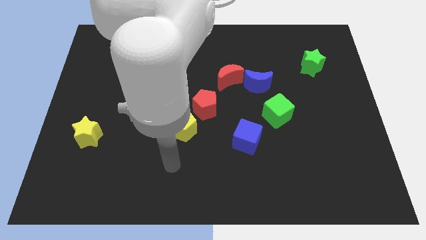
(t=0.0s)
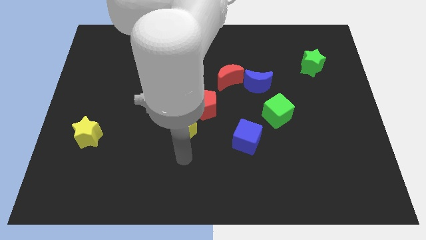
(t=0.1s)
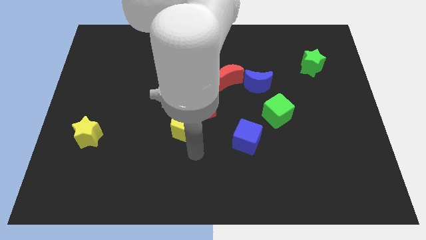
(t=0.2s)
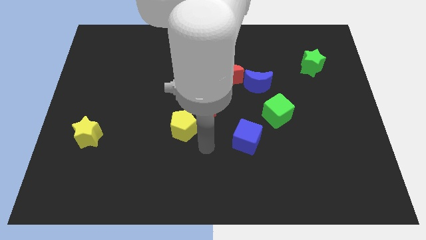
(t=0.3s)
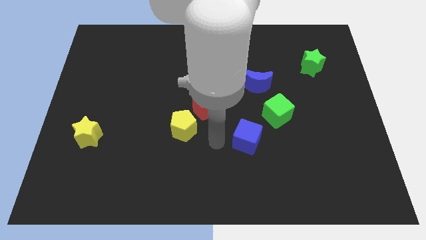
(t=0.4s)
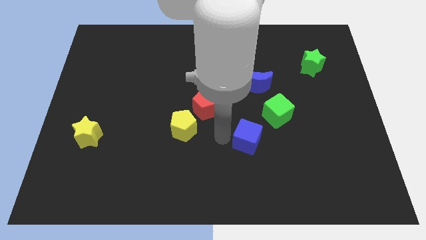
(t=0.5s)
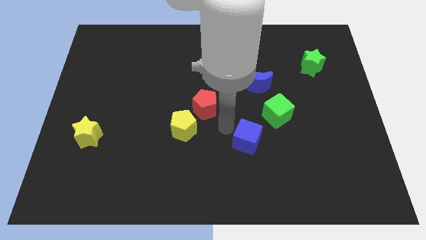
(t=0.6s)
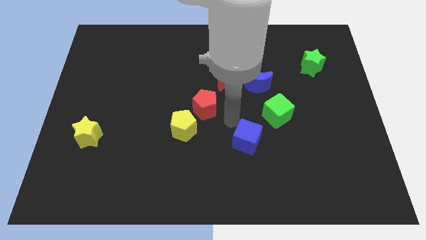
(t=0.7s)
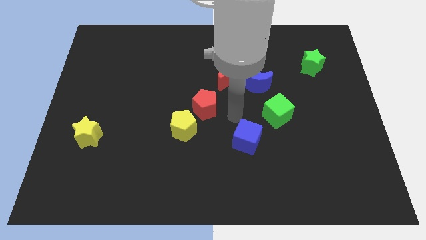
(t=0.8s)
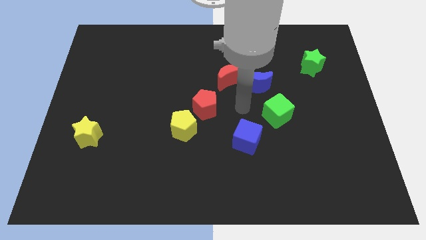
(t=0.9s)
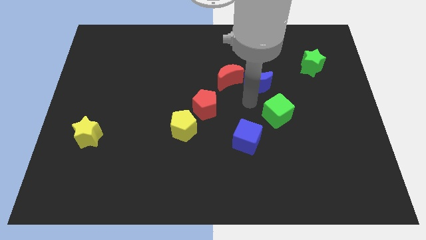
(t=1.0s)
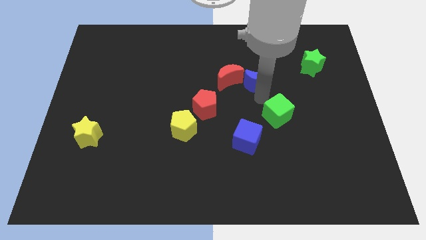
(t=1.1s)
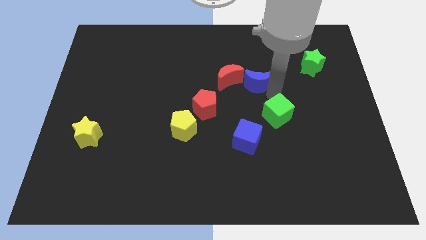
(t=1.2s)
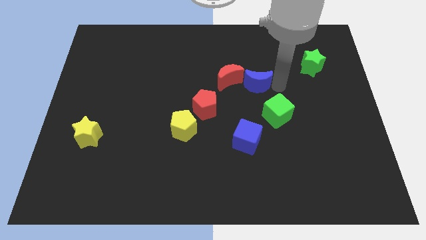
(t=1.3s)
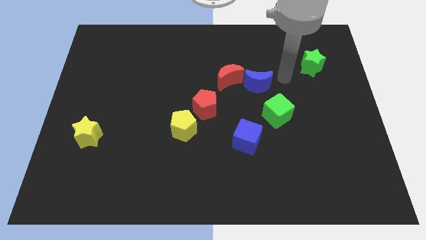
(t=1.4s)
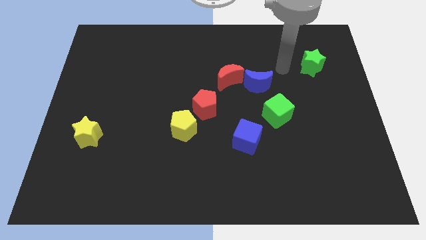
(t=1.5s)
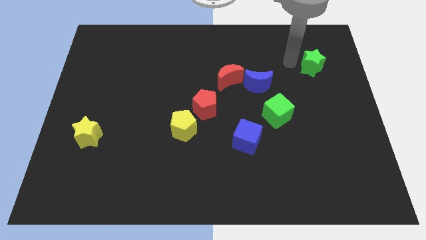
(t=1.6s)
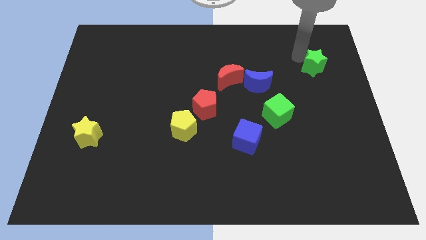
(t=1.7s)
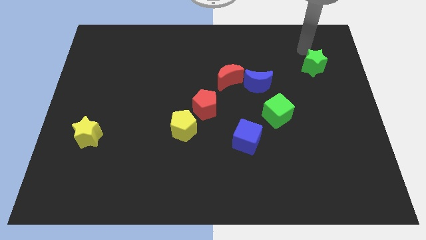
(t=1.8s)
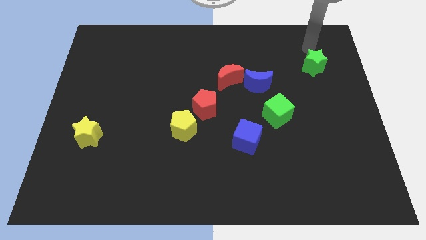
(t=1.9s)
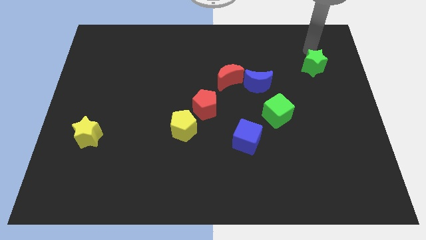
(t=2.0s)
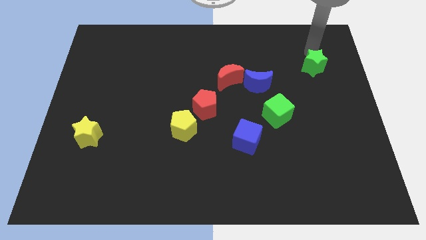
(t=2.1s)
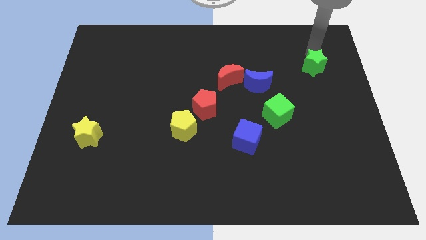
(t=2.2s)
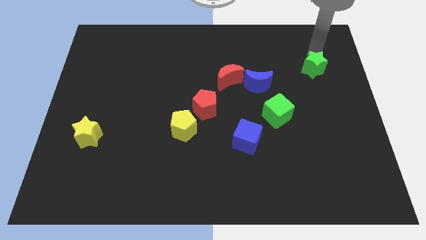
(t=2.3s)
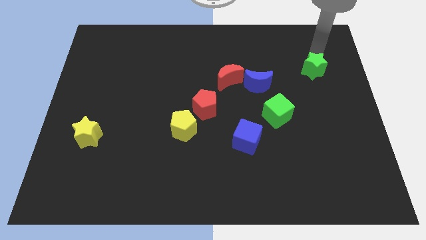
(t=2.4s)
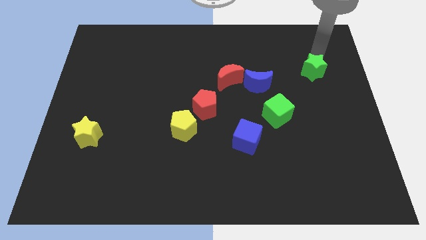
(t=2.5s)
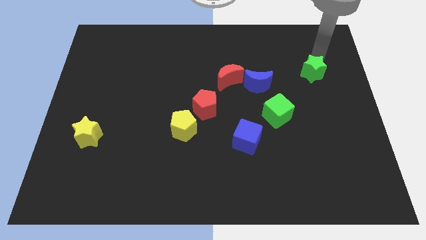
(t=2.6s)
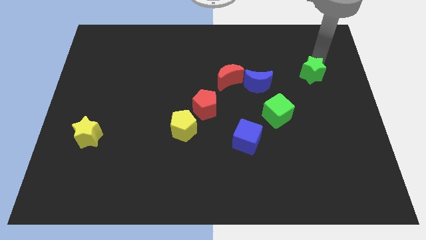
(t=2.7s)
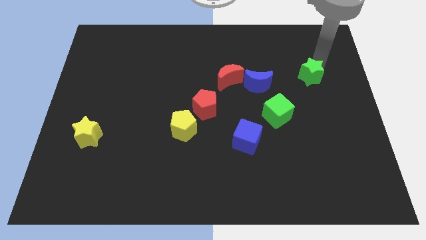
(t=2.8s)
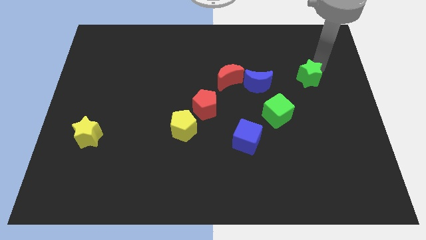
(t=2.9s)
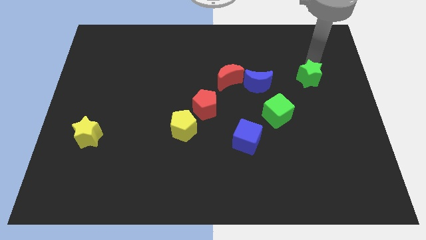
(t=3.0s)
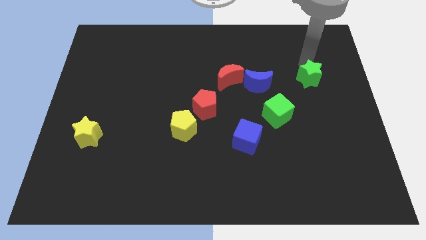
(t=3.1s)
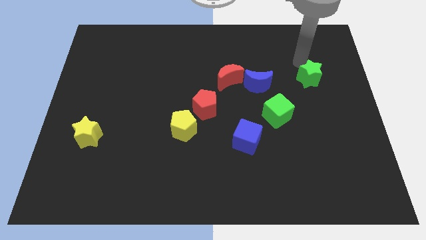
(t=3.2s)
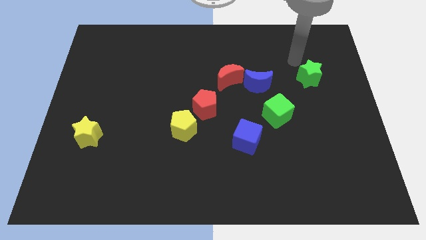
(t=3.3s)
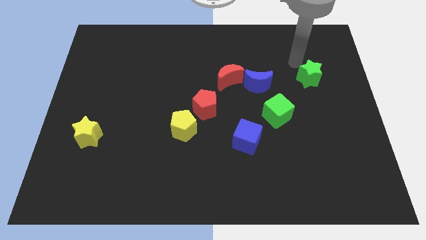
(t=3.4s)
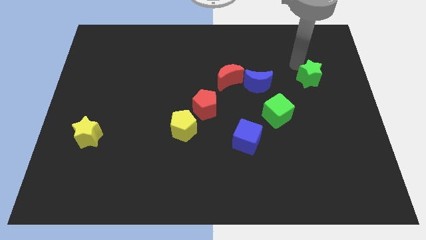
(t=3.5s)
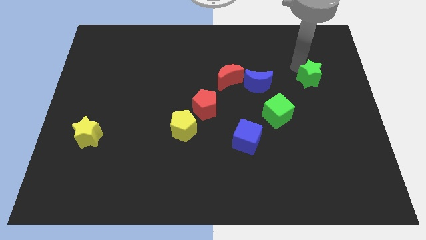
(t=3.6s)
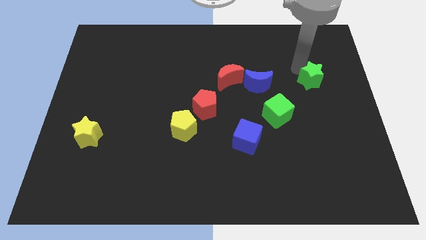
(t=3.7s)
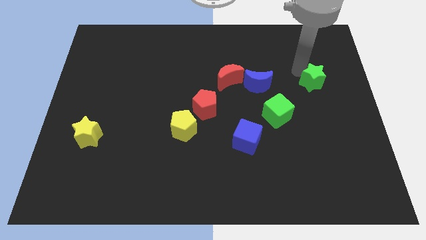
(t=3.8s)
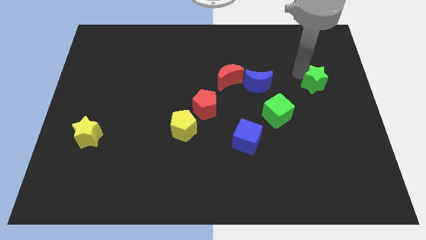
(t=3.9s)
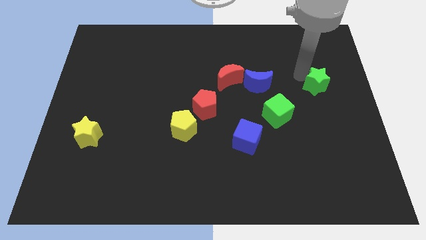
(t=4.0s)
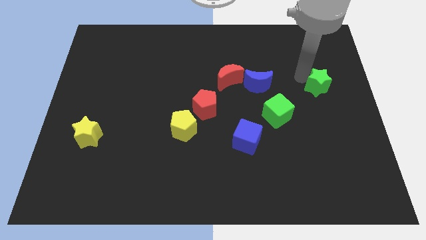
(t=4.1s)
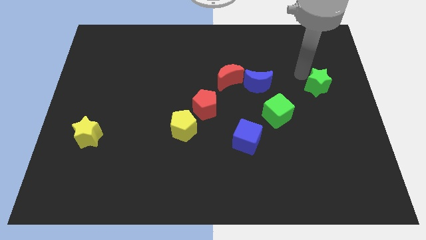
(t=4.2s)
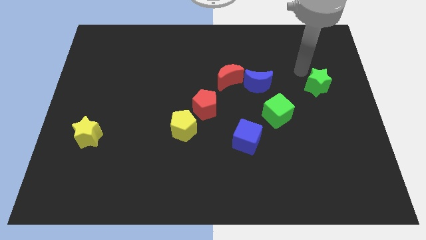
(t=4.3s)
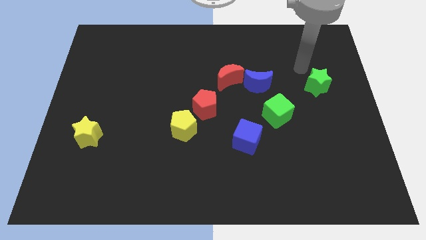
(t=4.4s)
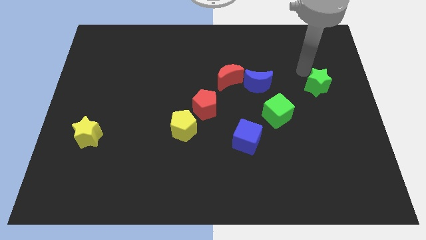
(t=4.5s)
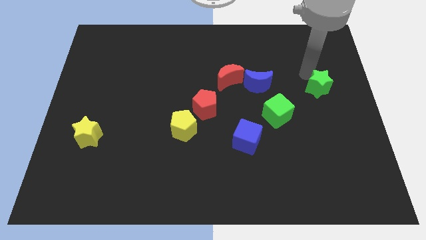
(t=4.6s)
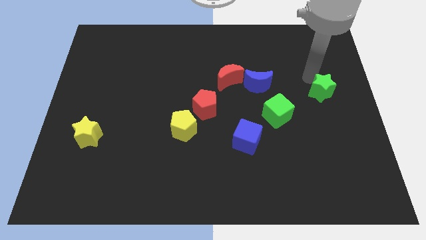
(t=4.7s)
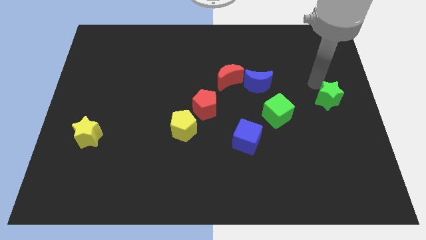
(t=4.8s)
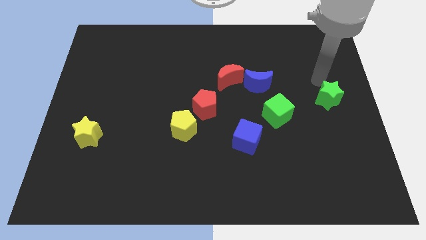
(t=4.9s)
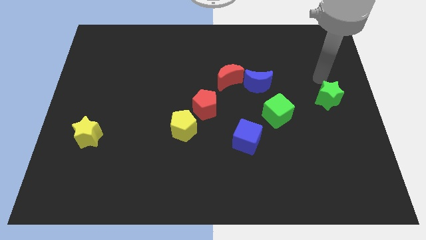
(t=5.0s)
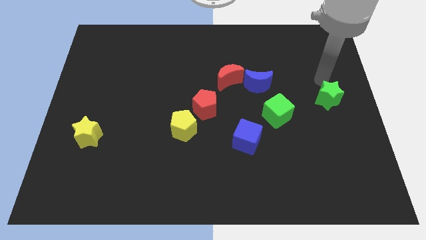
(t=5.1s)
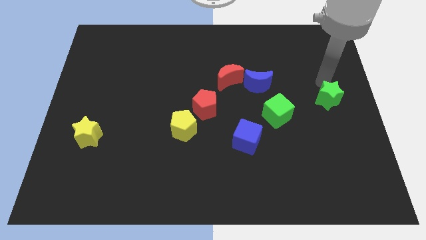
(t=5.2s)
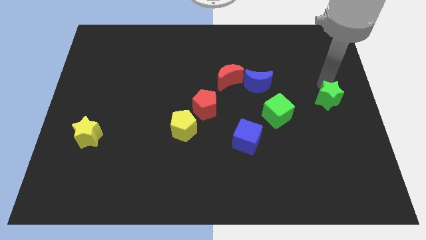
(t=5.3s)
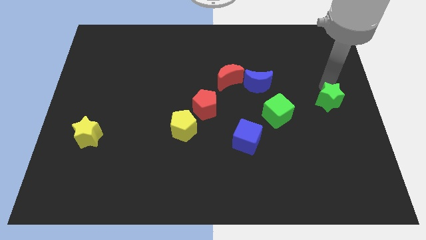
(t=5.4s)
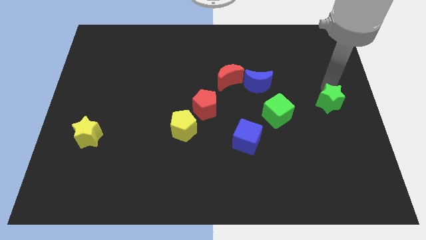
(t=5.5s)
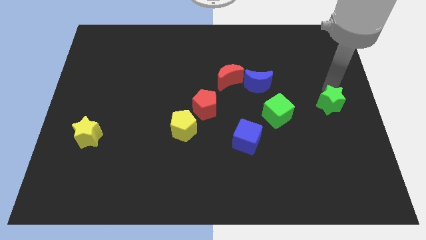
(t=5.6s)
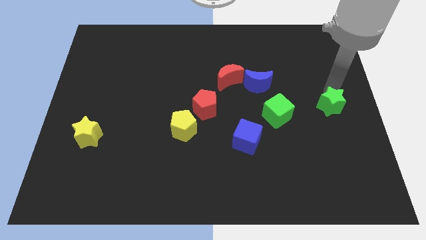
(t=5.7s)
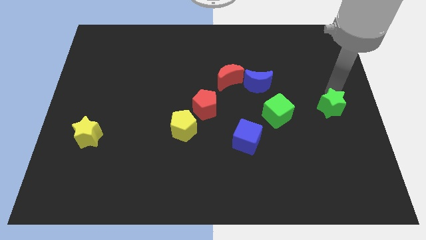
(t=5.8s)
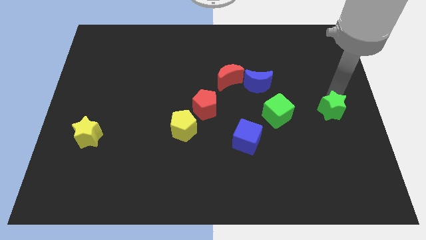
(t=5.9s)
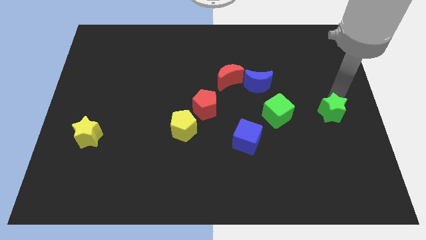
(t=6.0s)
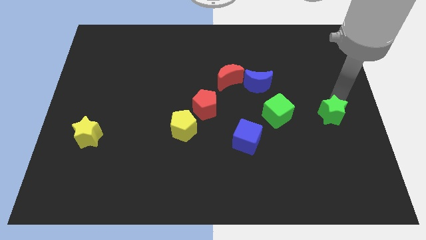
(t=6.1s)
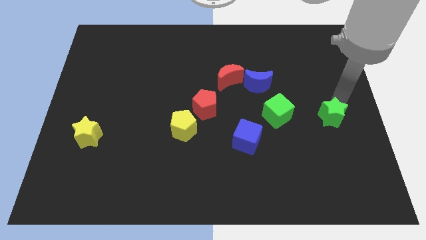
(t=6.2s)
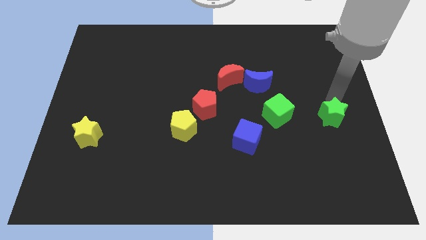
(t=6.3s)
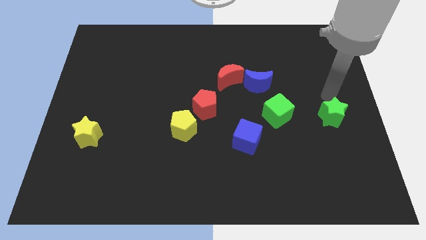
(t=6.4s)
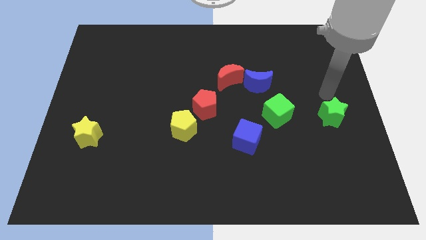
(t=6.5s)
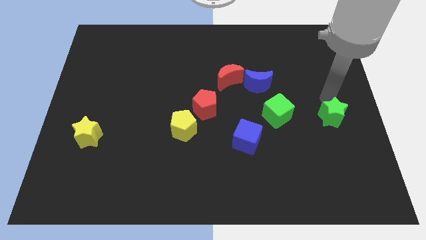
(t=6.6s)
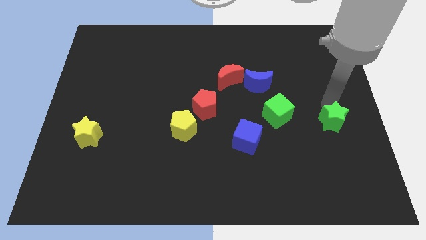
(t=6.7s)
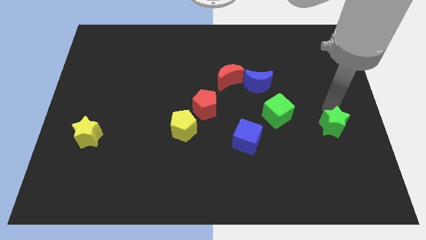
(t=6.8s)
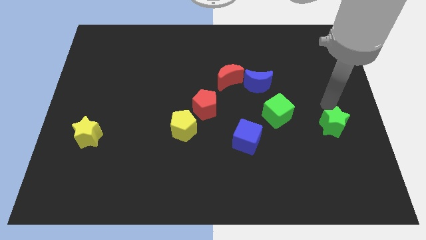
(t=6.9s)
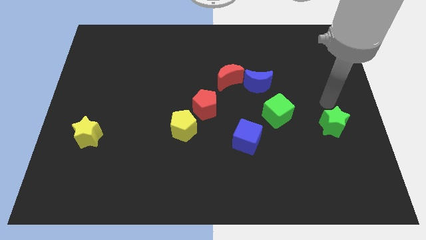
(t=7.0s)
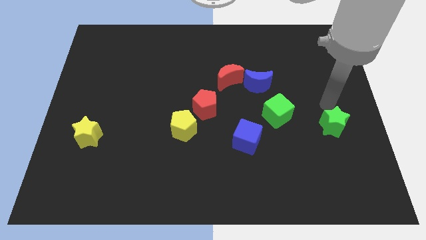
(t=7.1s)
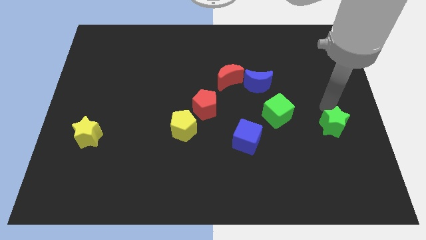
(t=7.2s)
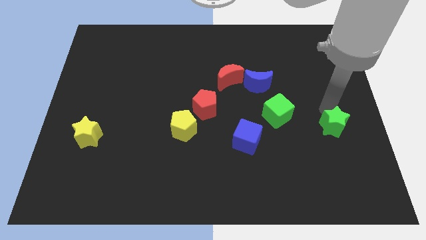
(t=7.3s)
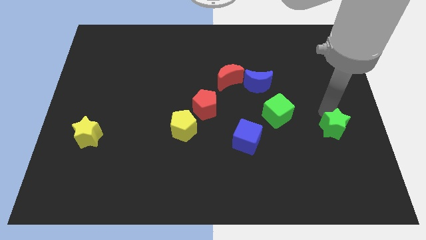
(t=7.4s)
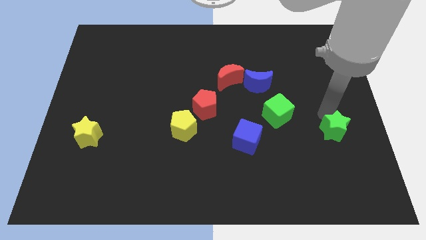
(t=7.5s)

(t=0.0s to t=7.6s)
move the green star downwards
